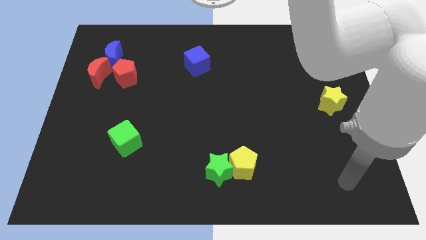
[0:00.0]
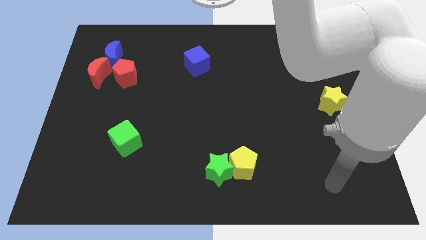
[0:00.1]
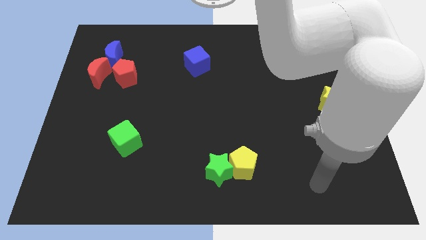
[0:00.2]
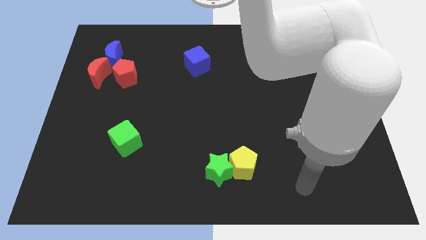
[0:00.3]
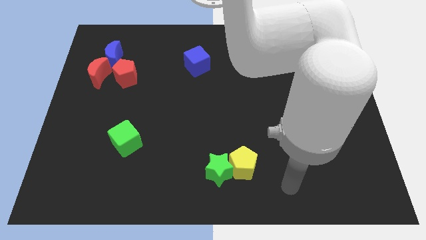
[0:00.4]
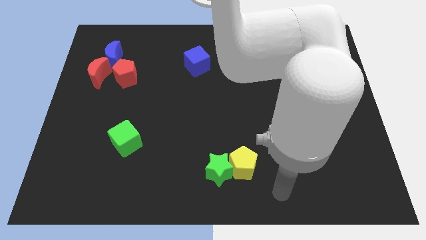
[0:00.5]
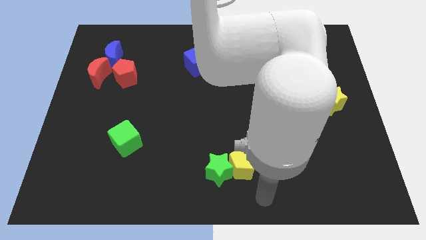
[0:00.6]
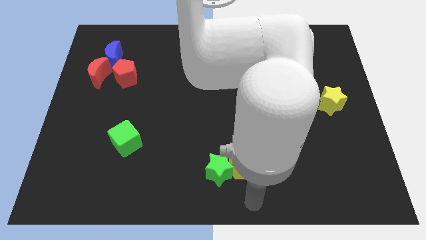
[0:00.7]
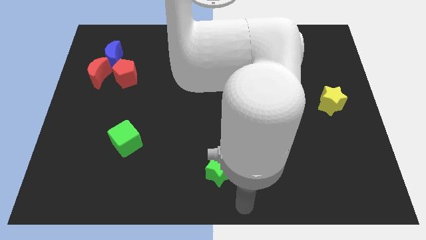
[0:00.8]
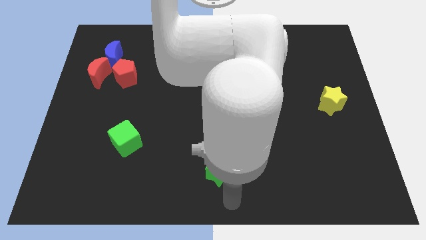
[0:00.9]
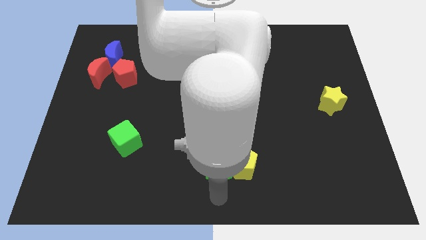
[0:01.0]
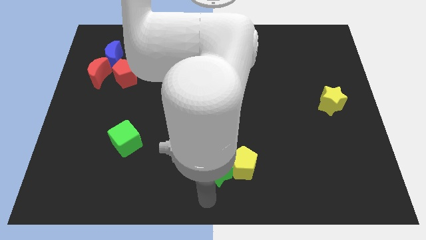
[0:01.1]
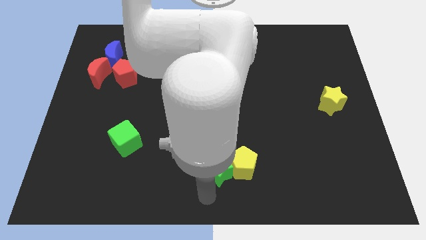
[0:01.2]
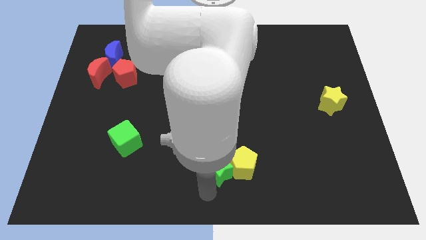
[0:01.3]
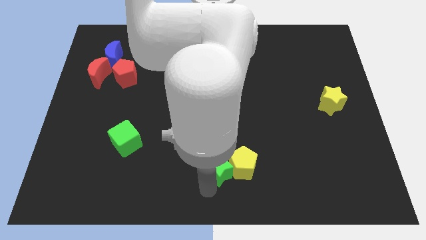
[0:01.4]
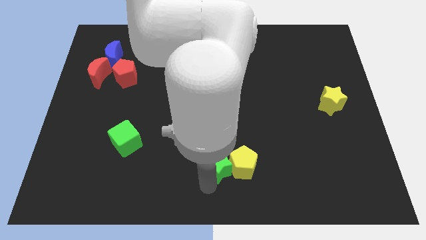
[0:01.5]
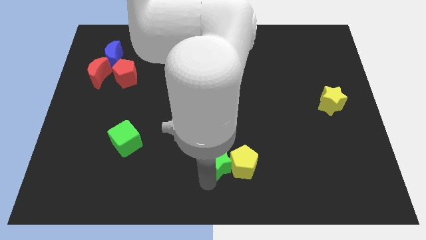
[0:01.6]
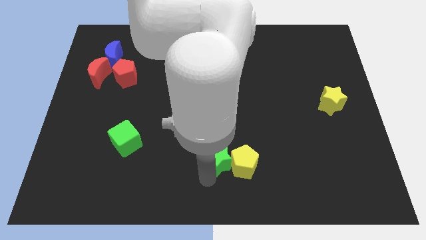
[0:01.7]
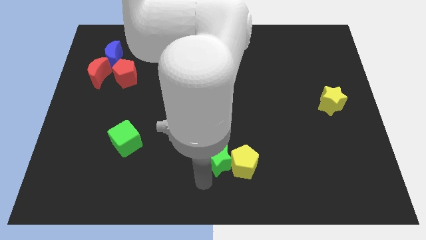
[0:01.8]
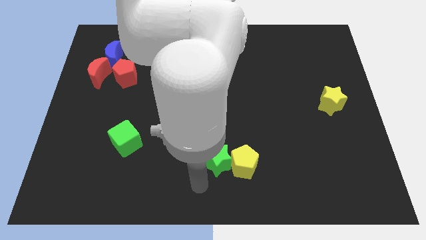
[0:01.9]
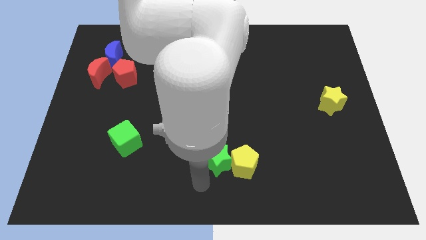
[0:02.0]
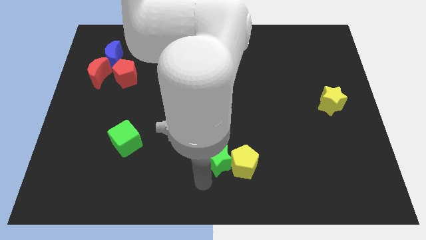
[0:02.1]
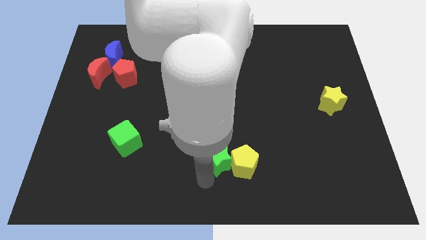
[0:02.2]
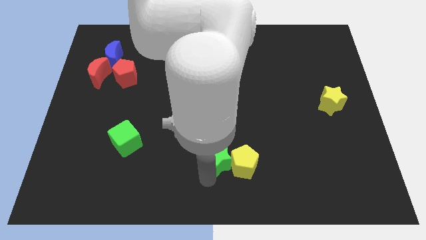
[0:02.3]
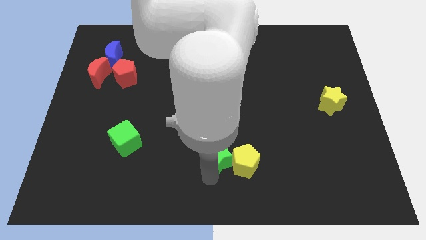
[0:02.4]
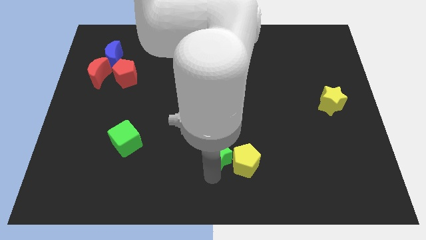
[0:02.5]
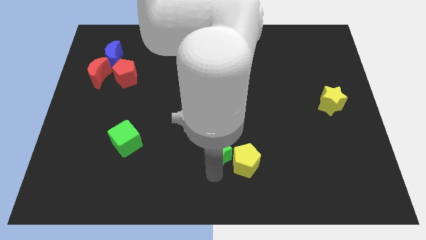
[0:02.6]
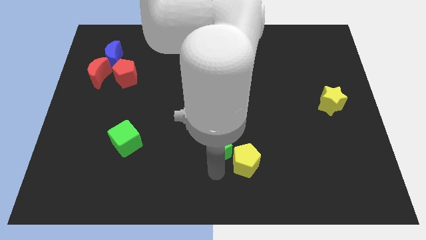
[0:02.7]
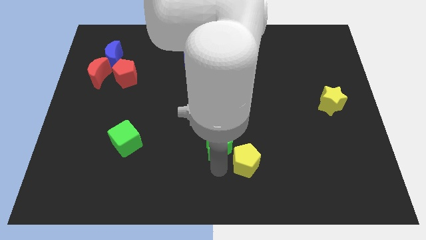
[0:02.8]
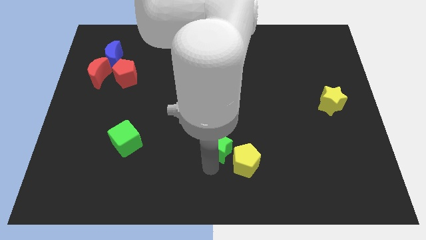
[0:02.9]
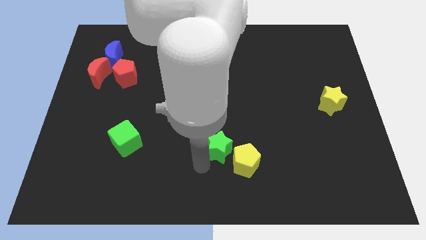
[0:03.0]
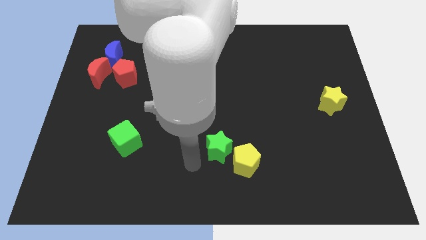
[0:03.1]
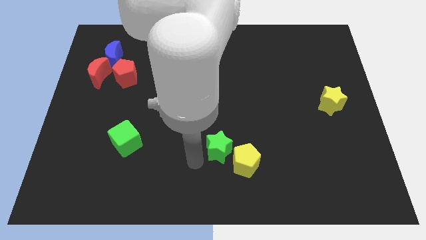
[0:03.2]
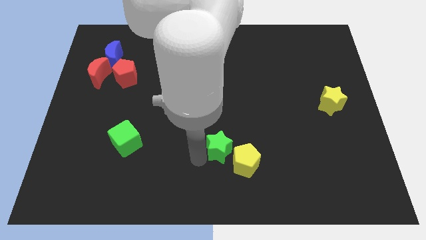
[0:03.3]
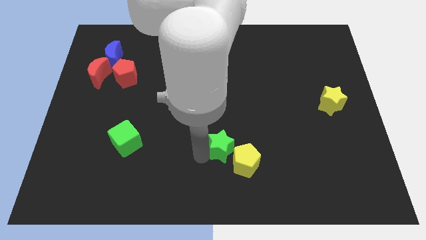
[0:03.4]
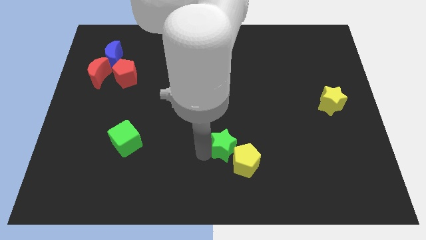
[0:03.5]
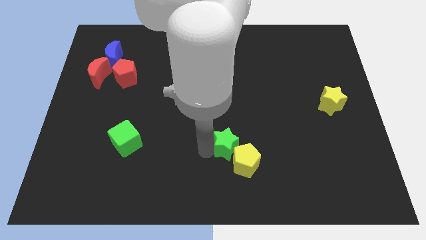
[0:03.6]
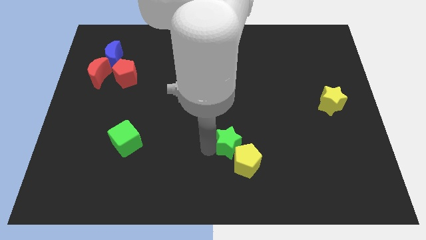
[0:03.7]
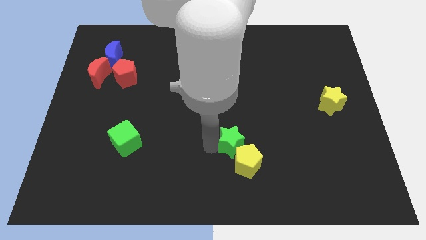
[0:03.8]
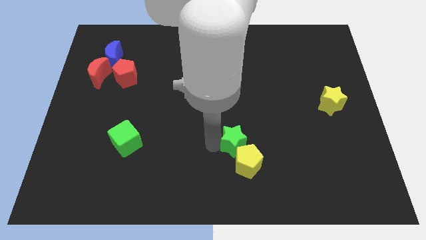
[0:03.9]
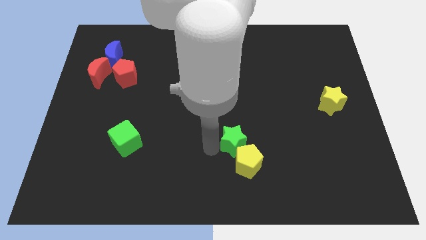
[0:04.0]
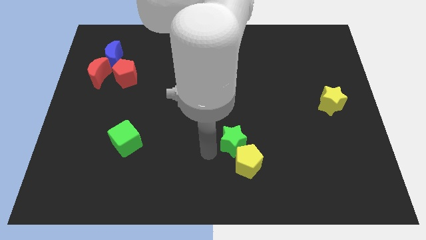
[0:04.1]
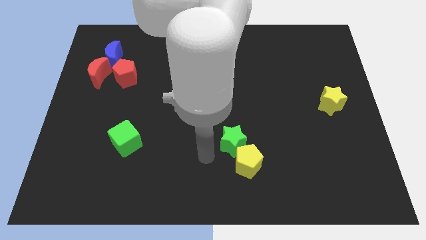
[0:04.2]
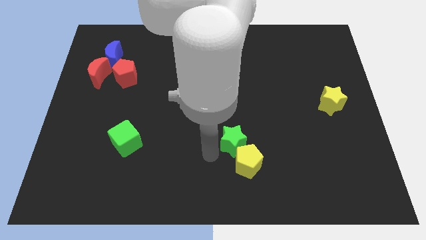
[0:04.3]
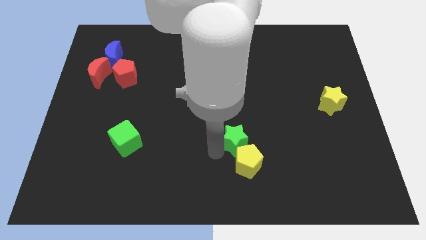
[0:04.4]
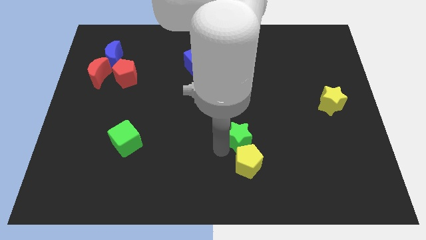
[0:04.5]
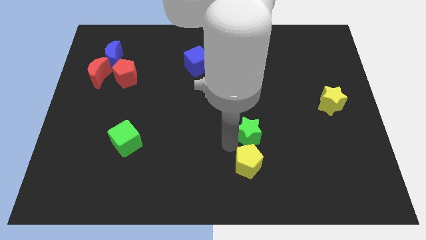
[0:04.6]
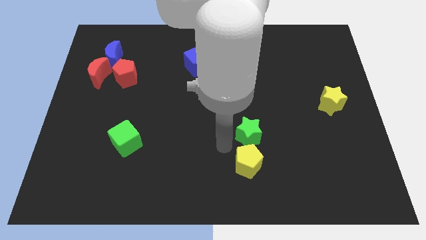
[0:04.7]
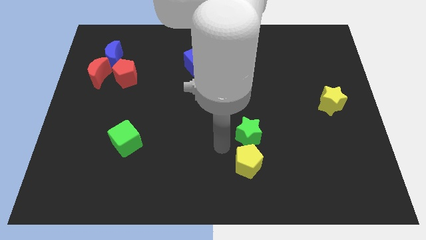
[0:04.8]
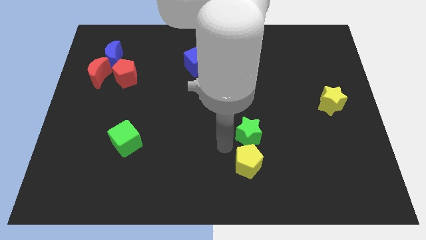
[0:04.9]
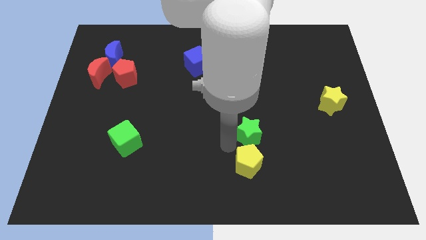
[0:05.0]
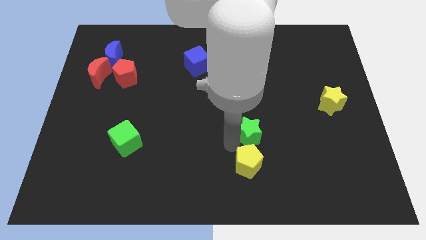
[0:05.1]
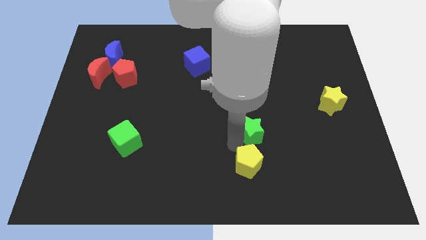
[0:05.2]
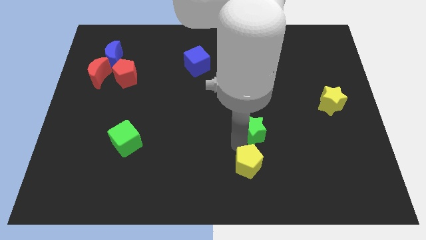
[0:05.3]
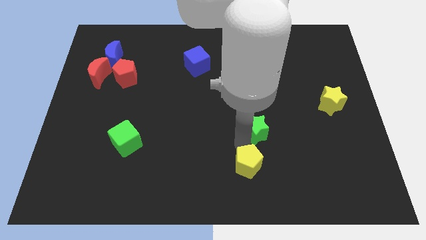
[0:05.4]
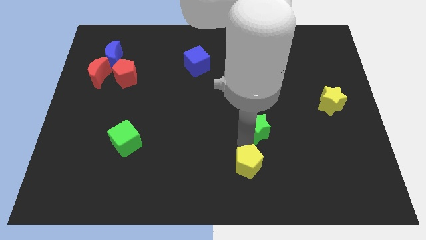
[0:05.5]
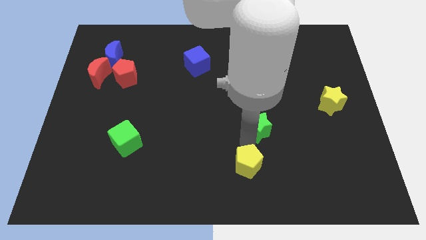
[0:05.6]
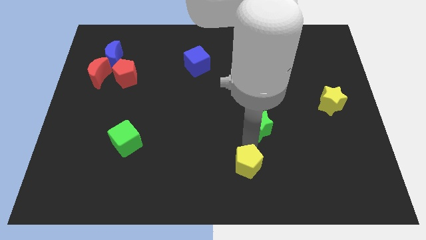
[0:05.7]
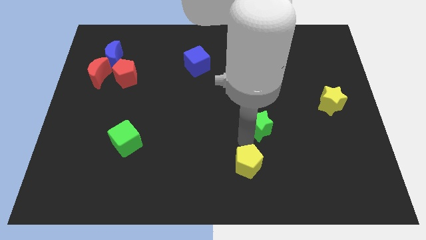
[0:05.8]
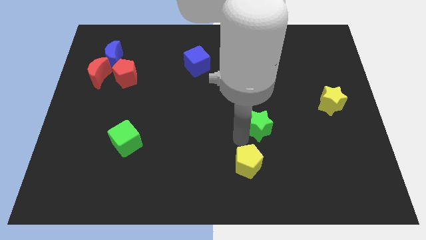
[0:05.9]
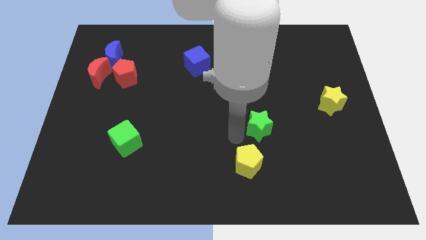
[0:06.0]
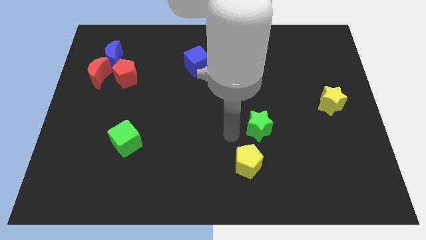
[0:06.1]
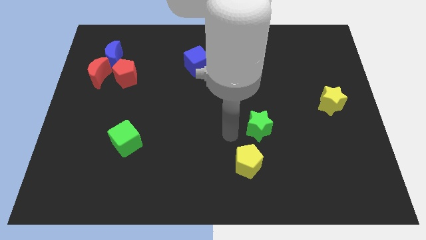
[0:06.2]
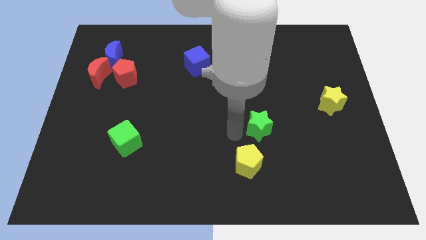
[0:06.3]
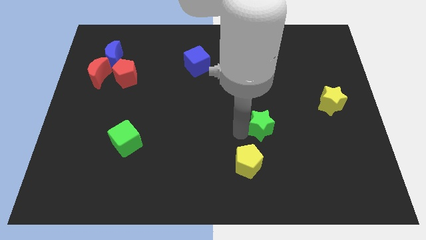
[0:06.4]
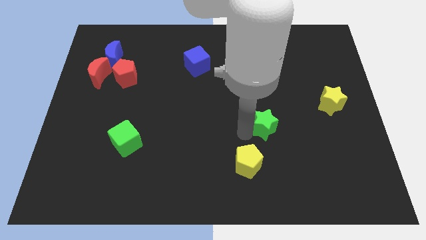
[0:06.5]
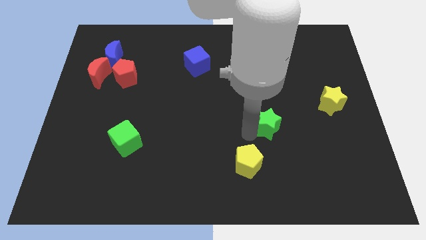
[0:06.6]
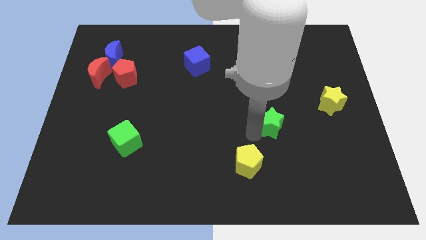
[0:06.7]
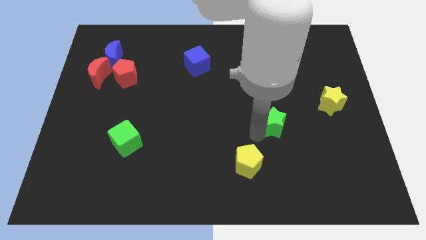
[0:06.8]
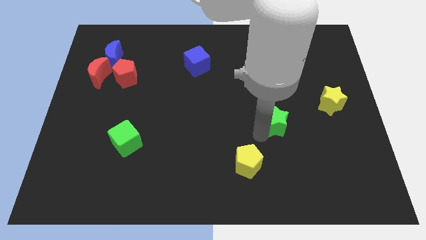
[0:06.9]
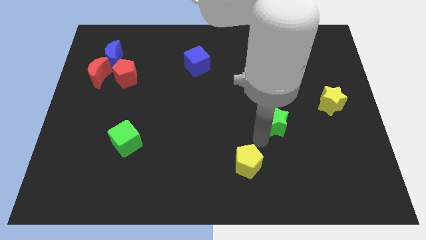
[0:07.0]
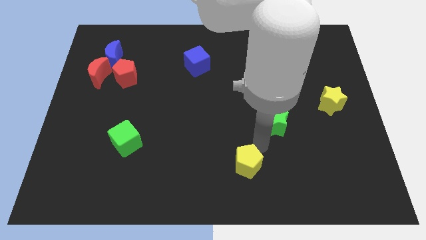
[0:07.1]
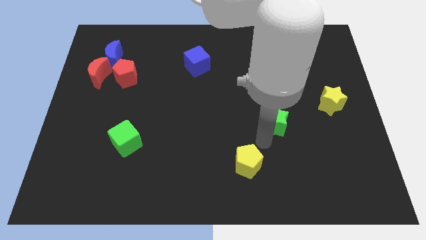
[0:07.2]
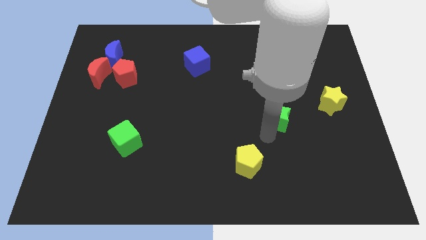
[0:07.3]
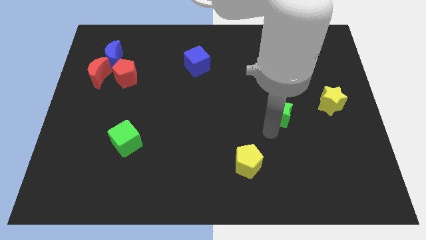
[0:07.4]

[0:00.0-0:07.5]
push the green star upwards and right diagonally

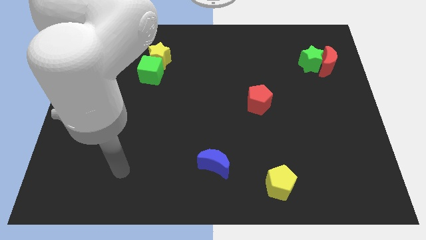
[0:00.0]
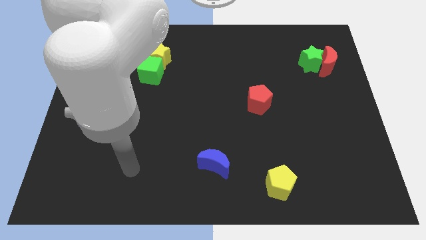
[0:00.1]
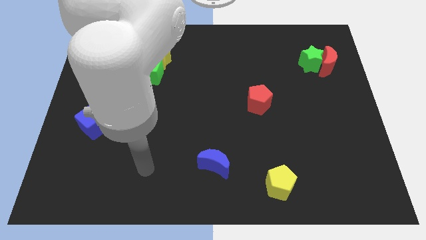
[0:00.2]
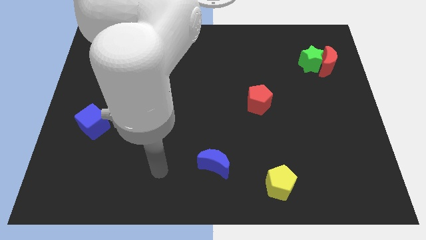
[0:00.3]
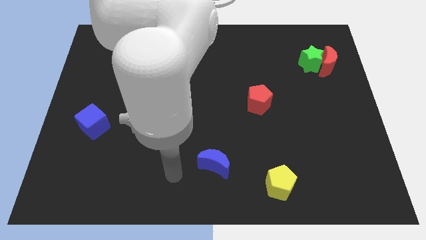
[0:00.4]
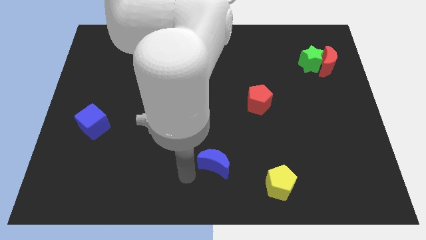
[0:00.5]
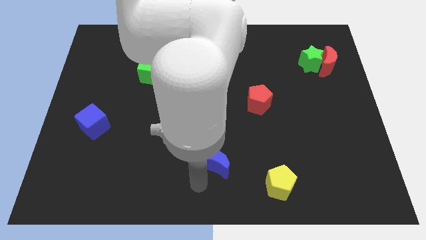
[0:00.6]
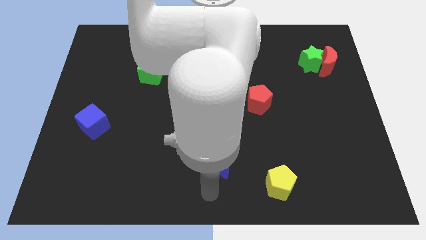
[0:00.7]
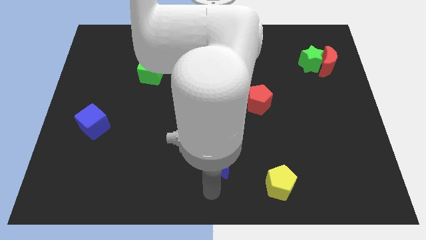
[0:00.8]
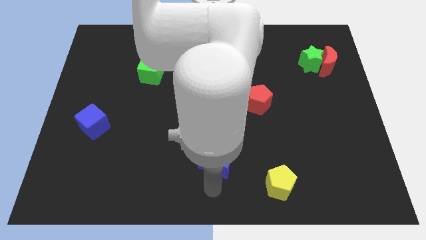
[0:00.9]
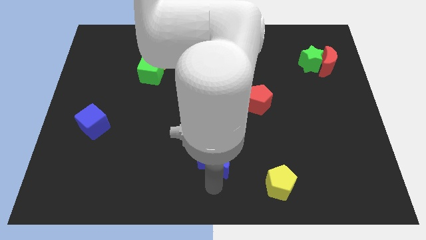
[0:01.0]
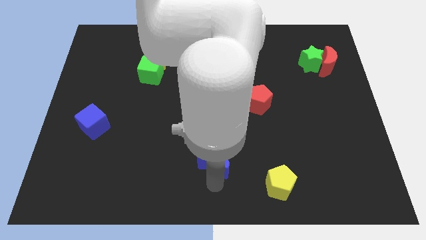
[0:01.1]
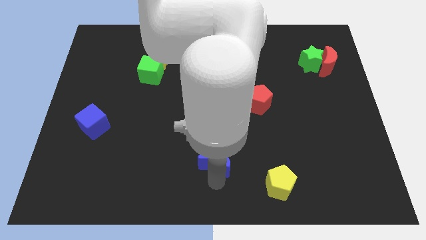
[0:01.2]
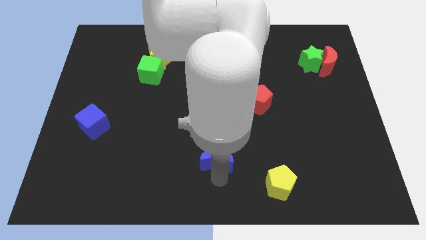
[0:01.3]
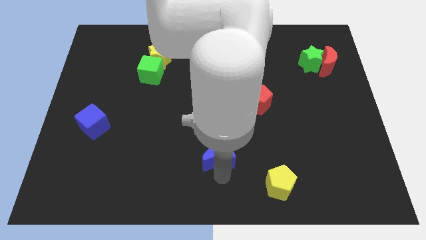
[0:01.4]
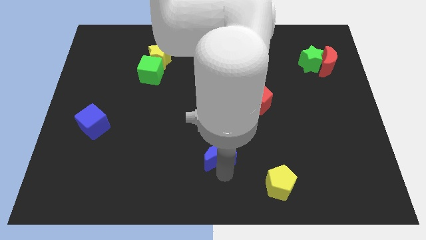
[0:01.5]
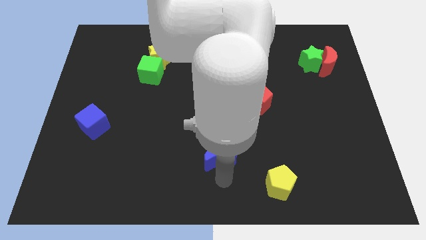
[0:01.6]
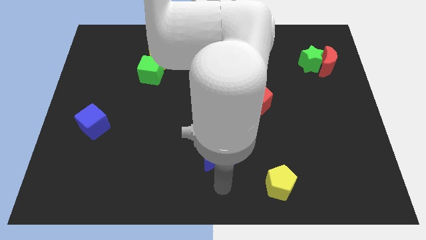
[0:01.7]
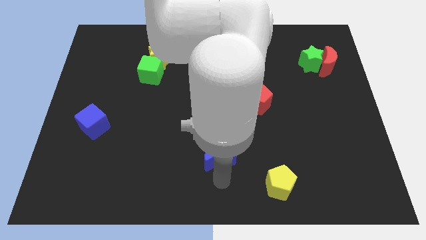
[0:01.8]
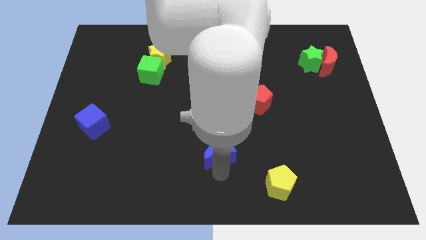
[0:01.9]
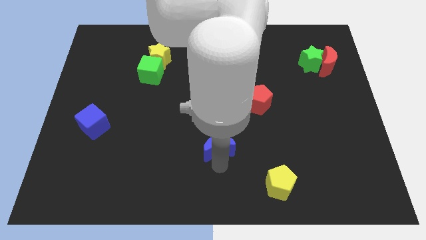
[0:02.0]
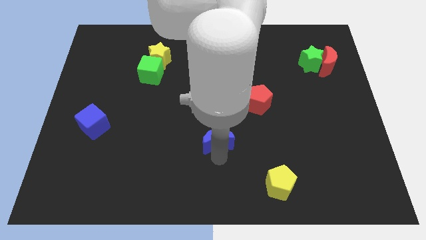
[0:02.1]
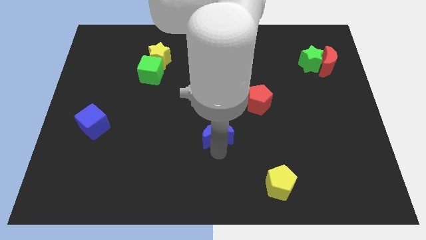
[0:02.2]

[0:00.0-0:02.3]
slightly move the blue moon upwards
